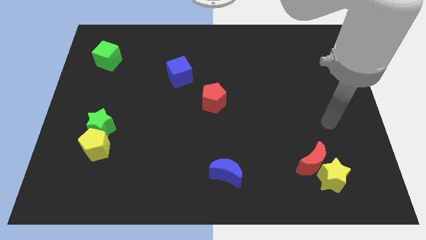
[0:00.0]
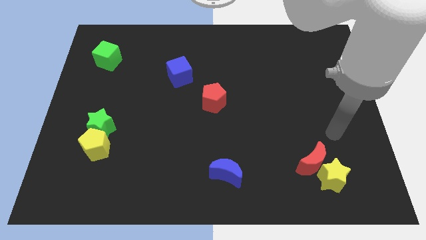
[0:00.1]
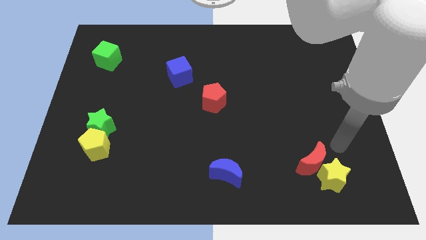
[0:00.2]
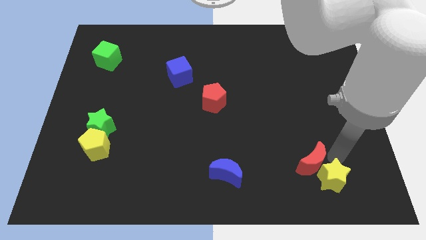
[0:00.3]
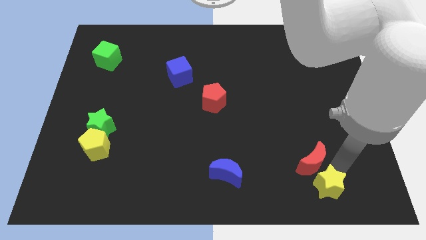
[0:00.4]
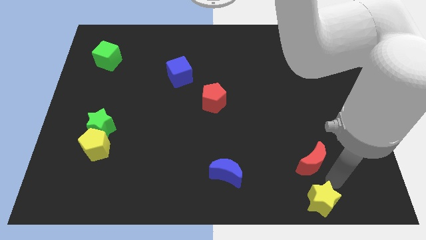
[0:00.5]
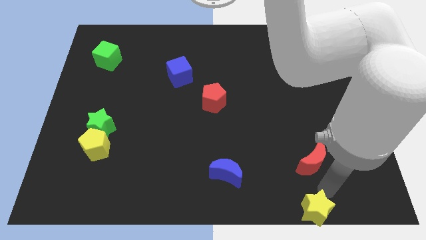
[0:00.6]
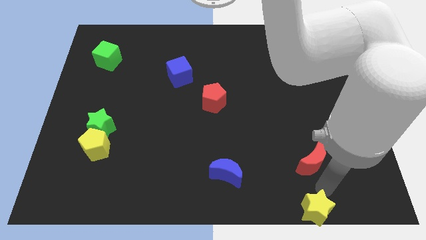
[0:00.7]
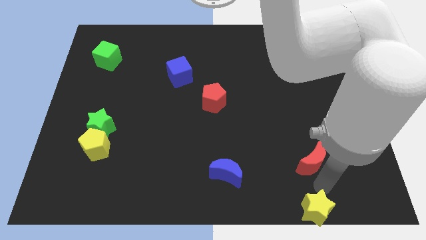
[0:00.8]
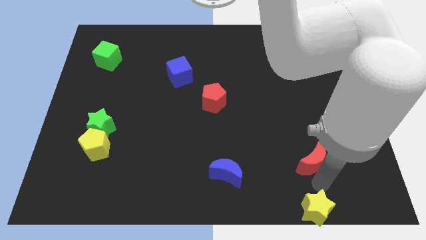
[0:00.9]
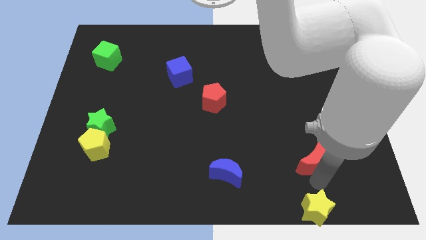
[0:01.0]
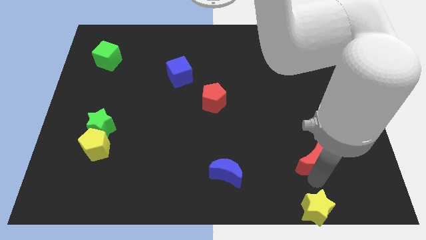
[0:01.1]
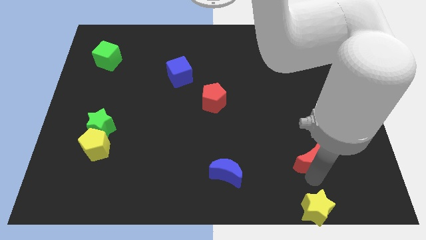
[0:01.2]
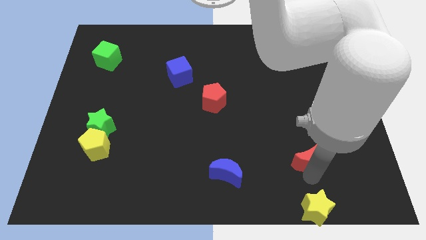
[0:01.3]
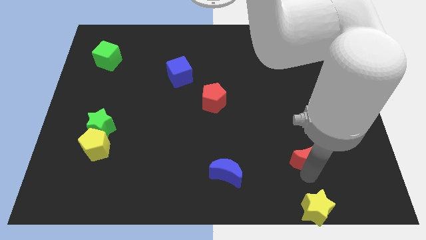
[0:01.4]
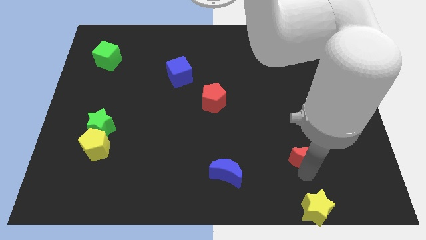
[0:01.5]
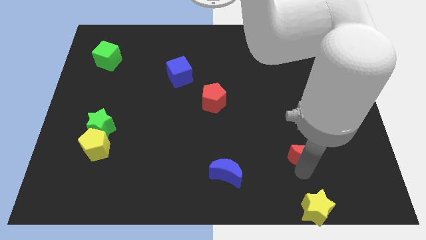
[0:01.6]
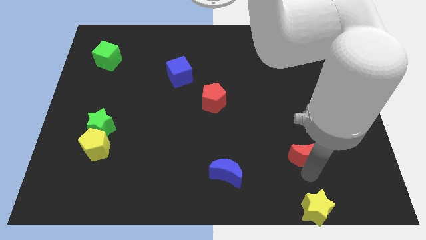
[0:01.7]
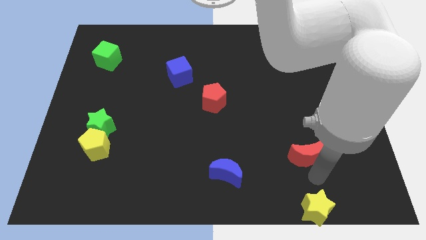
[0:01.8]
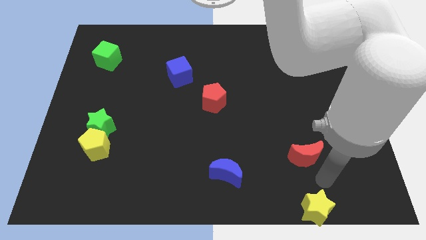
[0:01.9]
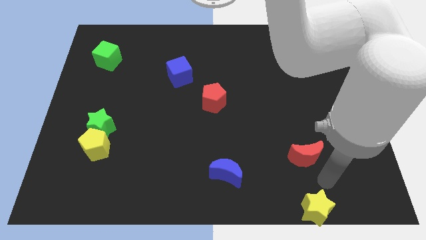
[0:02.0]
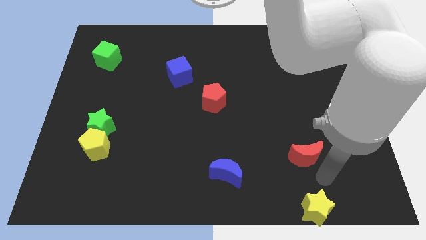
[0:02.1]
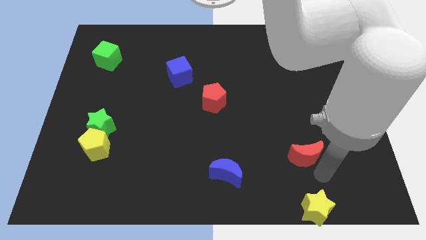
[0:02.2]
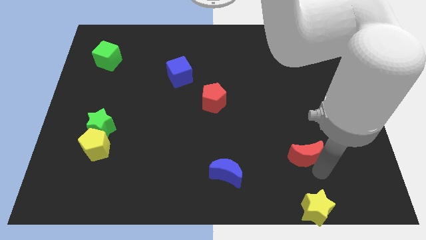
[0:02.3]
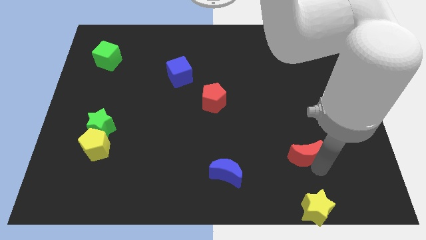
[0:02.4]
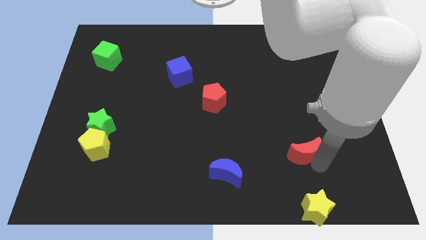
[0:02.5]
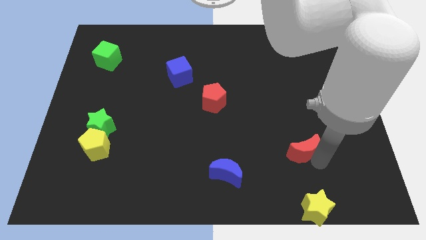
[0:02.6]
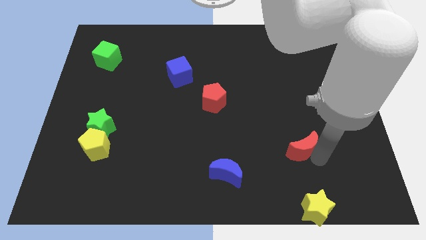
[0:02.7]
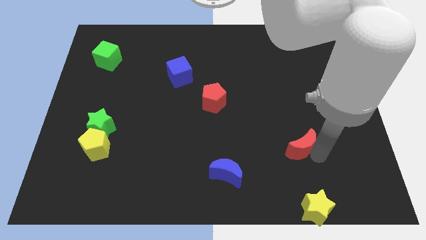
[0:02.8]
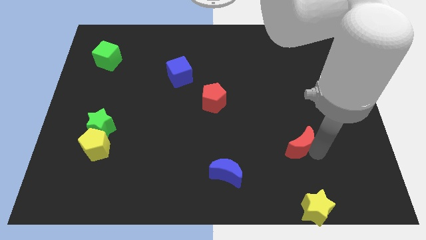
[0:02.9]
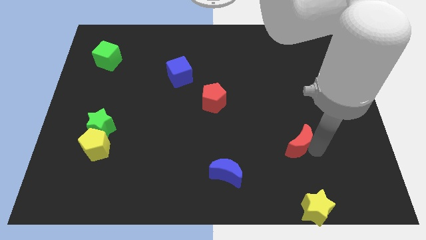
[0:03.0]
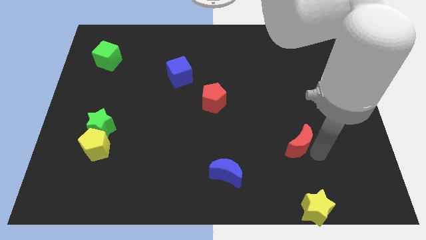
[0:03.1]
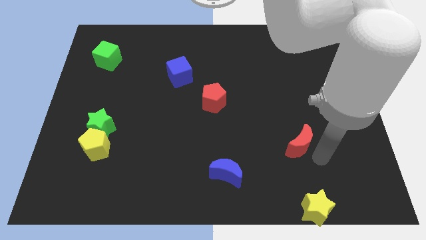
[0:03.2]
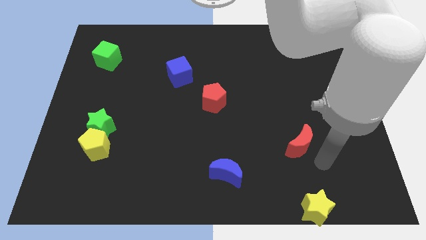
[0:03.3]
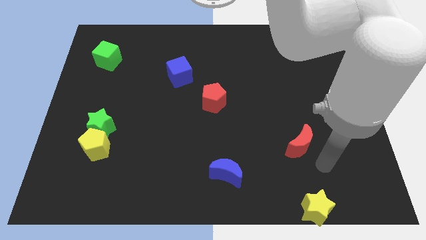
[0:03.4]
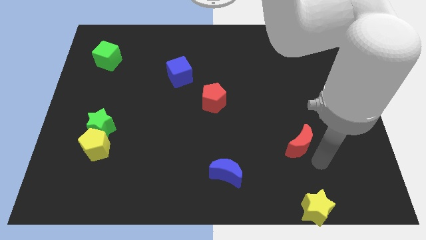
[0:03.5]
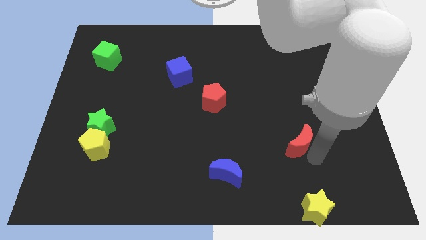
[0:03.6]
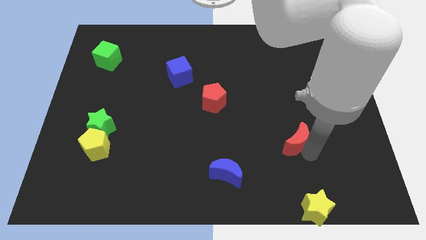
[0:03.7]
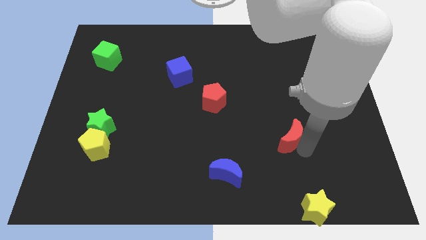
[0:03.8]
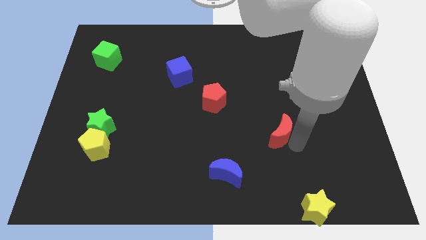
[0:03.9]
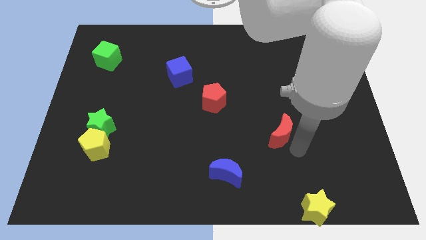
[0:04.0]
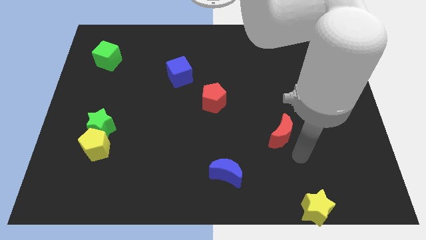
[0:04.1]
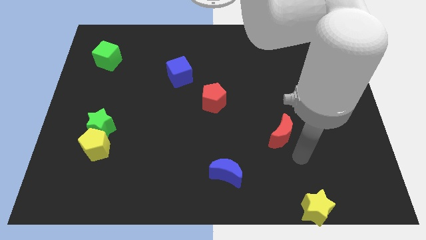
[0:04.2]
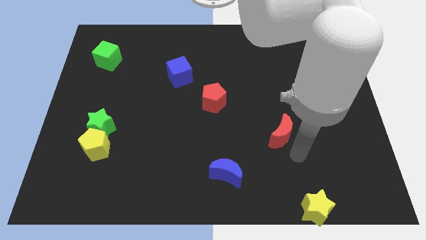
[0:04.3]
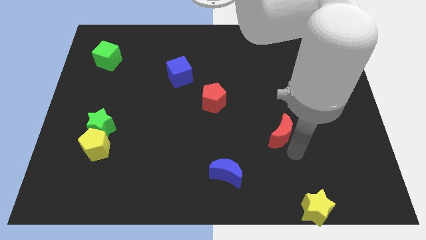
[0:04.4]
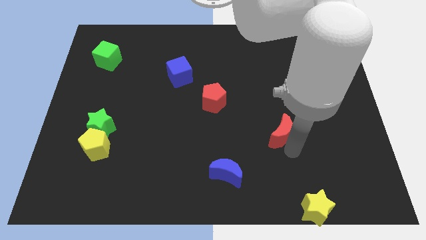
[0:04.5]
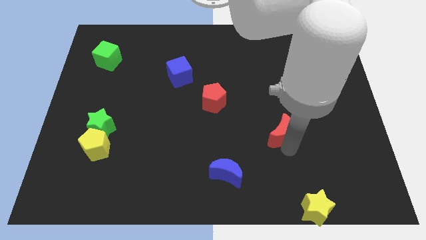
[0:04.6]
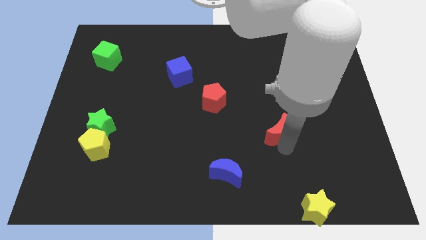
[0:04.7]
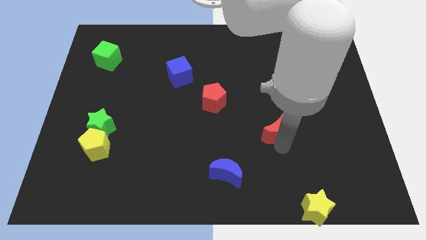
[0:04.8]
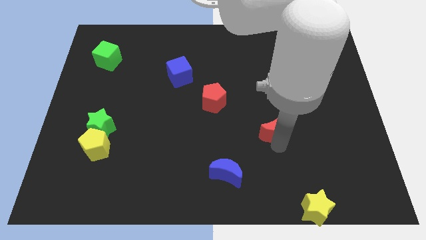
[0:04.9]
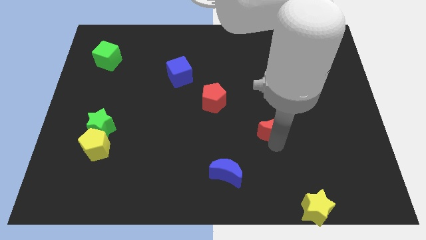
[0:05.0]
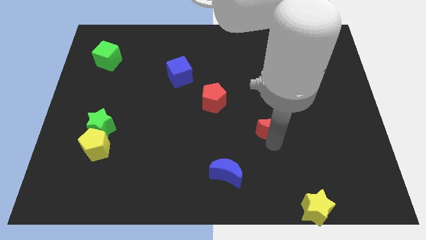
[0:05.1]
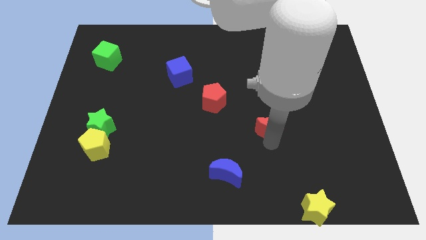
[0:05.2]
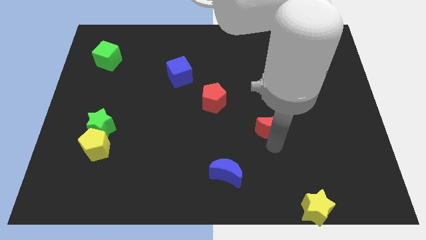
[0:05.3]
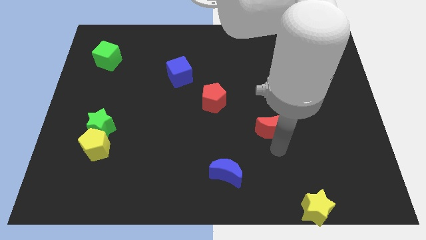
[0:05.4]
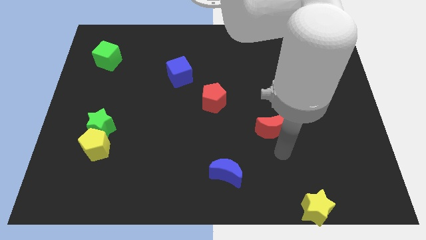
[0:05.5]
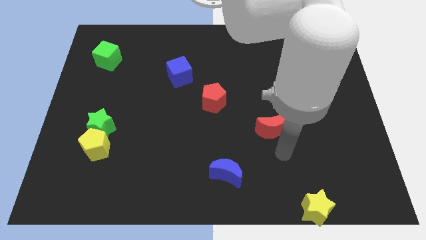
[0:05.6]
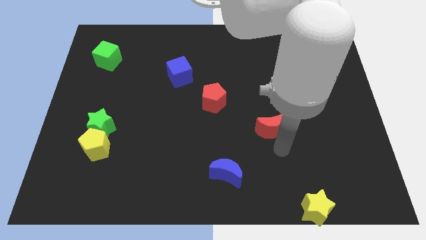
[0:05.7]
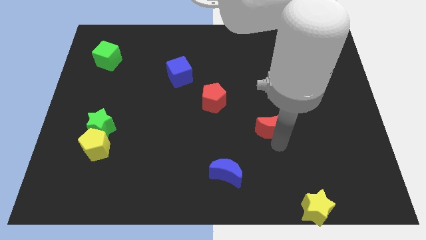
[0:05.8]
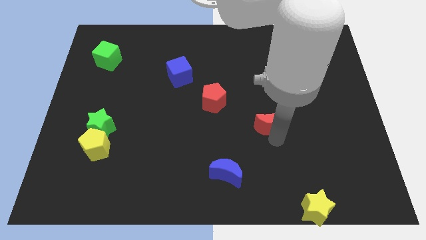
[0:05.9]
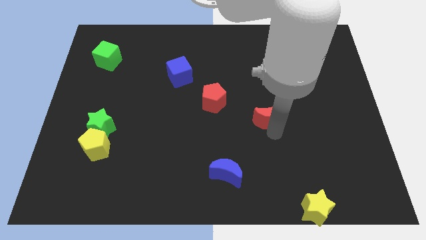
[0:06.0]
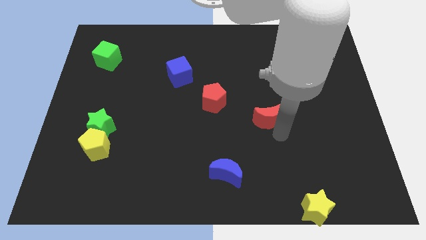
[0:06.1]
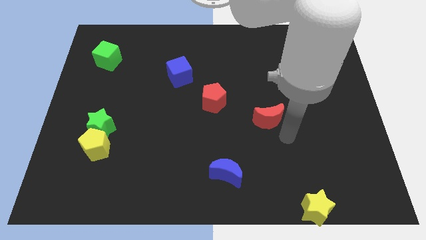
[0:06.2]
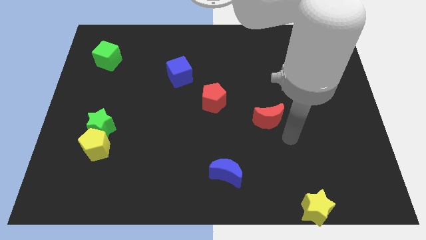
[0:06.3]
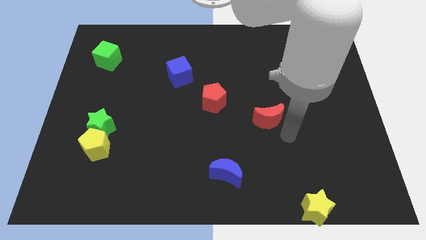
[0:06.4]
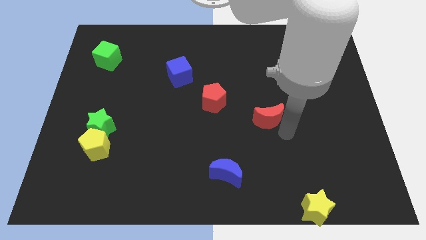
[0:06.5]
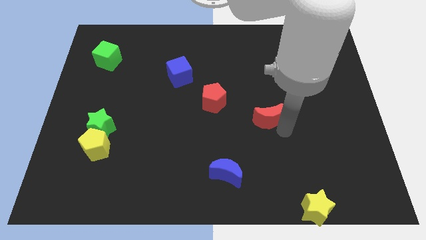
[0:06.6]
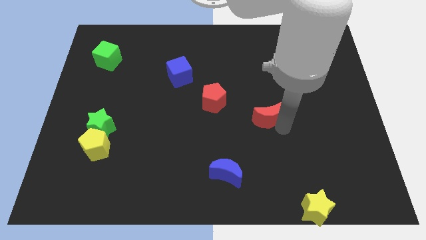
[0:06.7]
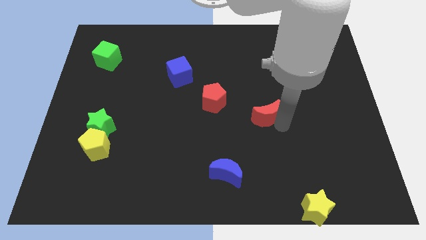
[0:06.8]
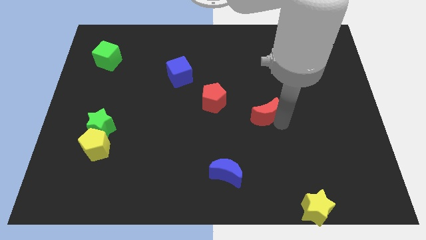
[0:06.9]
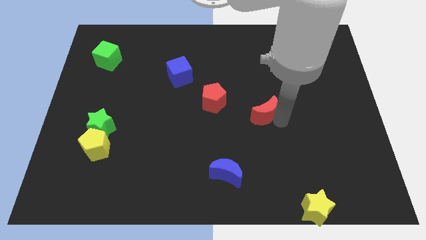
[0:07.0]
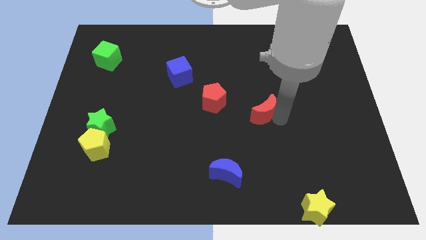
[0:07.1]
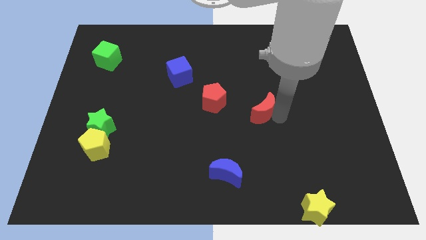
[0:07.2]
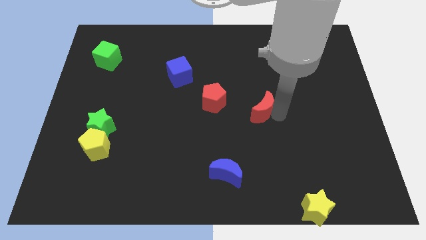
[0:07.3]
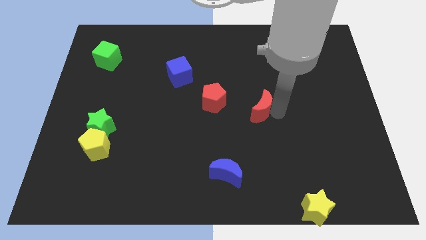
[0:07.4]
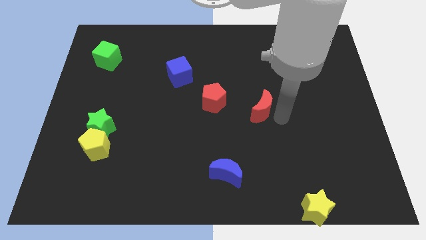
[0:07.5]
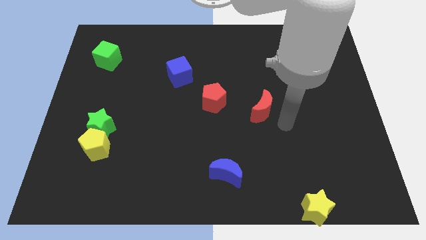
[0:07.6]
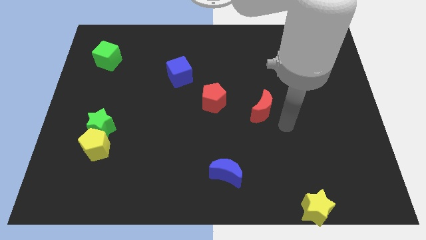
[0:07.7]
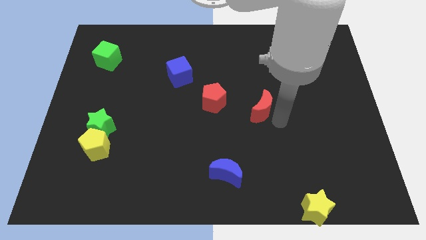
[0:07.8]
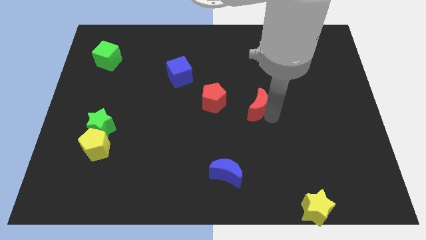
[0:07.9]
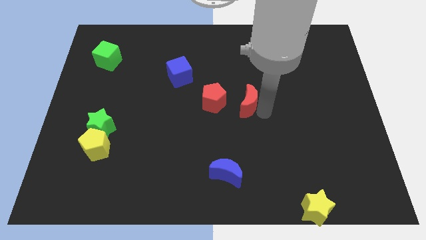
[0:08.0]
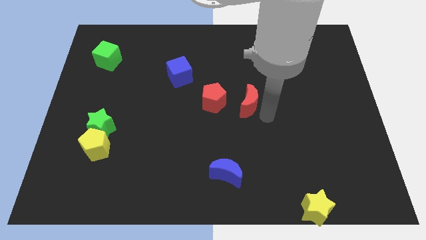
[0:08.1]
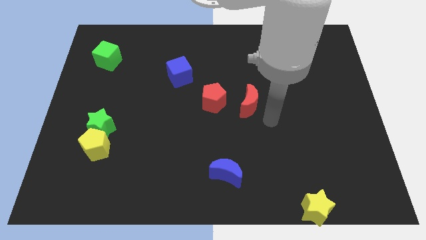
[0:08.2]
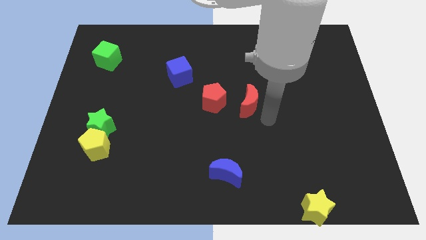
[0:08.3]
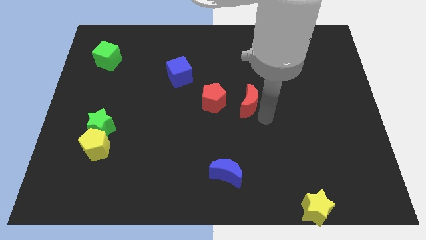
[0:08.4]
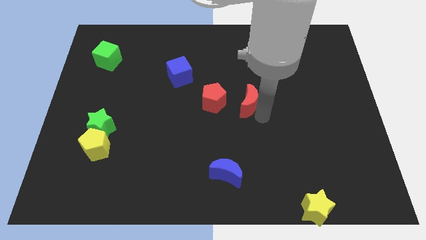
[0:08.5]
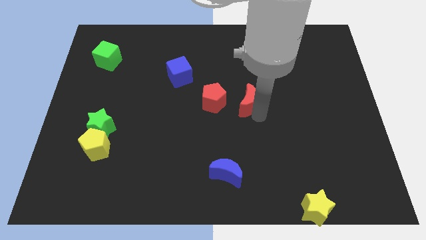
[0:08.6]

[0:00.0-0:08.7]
slide the red moon diagonally up and left
